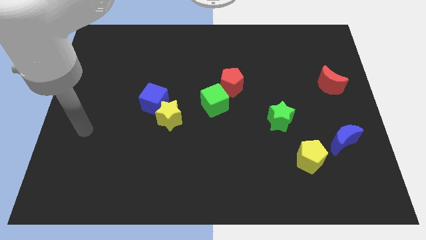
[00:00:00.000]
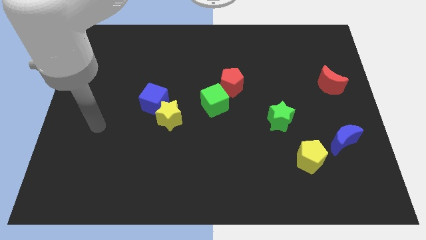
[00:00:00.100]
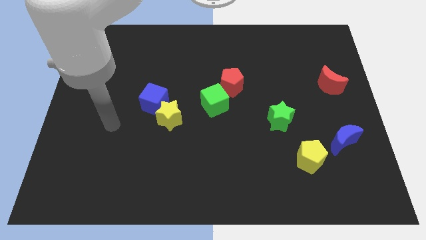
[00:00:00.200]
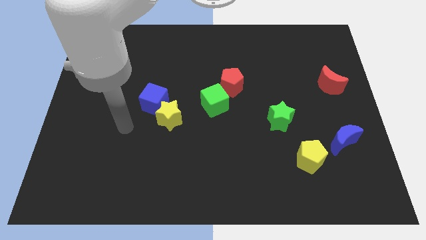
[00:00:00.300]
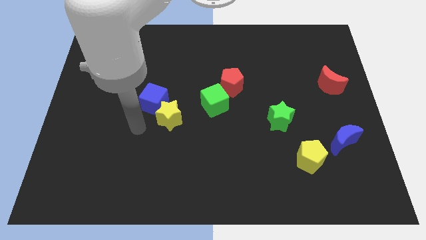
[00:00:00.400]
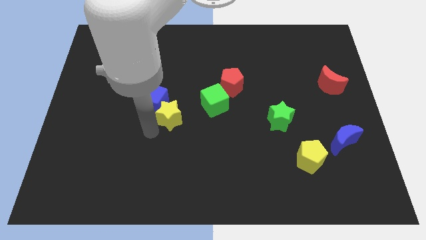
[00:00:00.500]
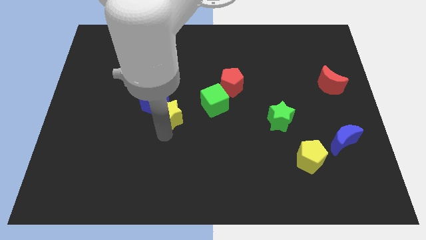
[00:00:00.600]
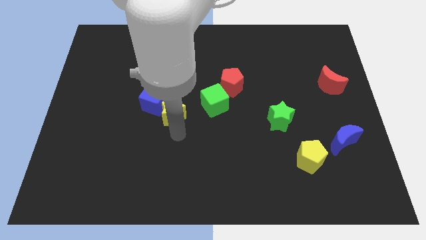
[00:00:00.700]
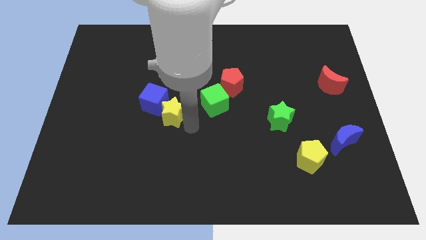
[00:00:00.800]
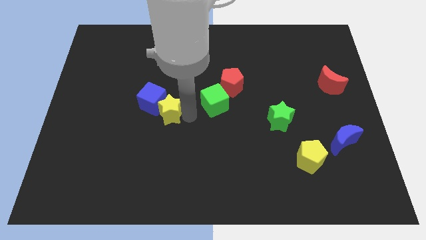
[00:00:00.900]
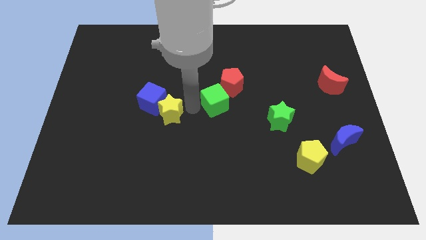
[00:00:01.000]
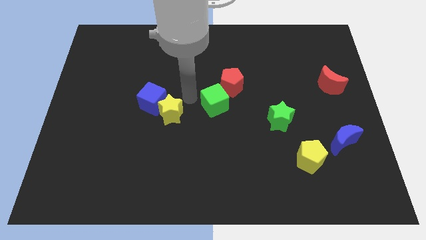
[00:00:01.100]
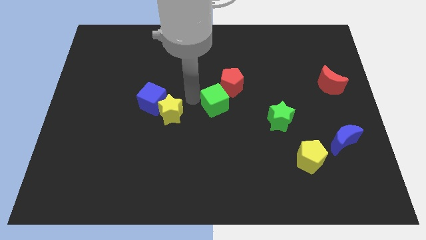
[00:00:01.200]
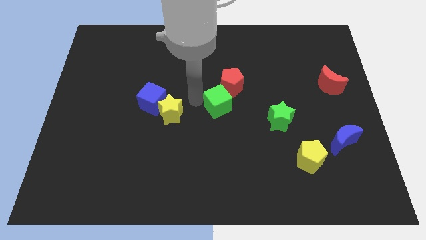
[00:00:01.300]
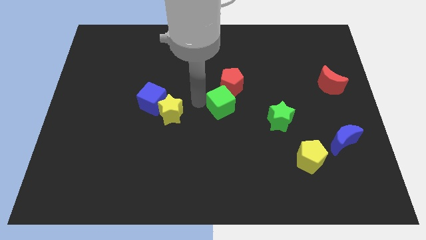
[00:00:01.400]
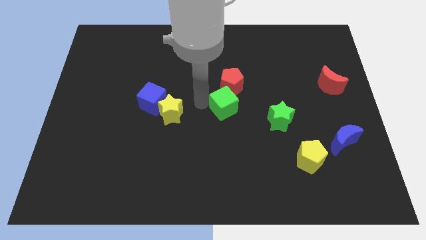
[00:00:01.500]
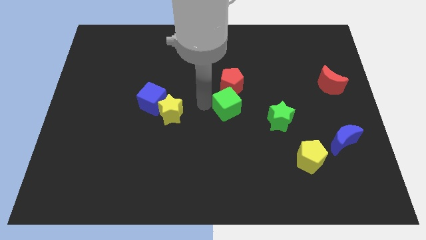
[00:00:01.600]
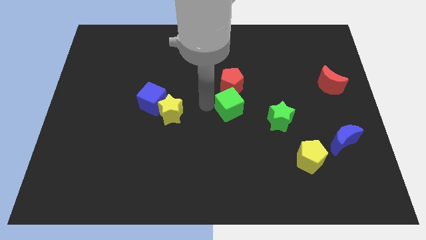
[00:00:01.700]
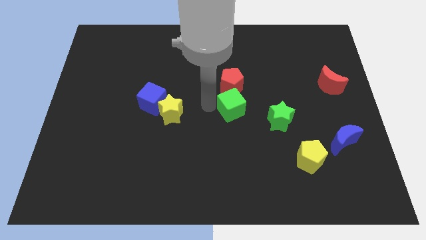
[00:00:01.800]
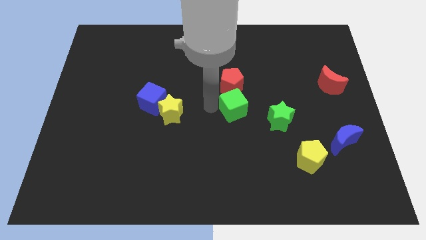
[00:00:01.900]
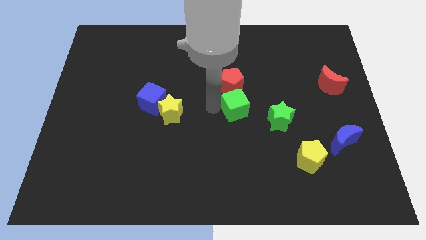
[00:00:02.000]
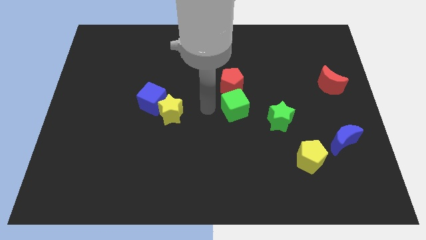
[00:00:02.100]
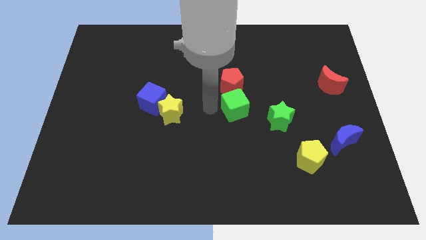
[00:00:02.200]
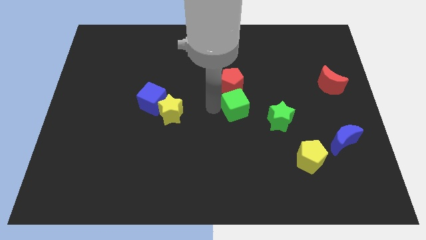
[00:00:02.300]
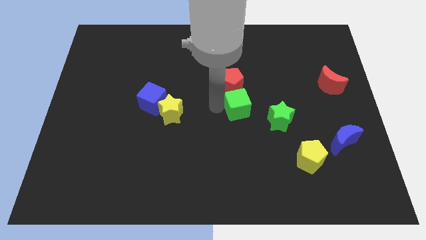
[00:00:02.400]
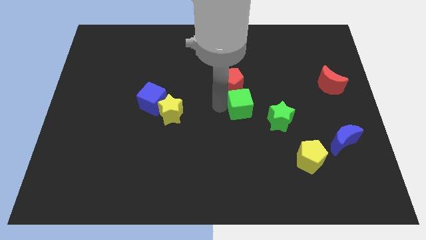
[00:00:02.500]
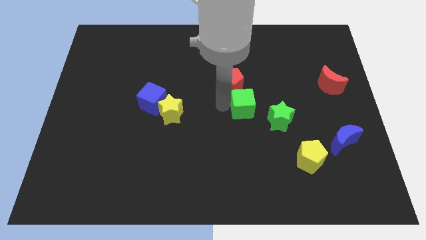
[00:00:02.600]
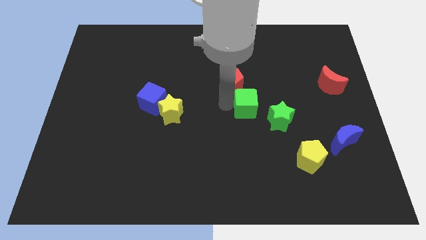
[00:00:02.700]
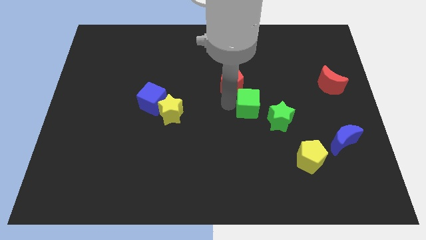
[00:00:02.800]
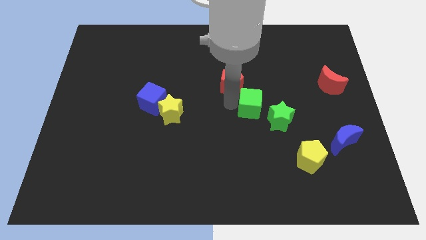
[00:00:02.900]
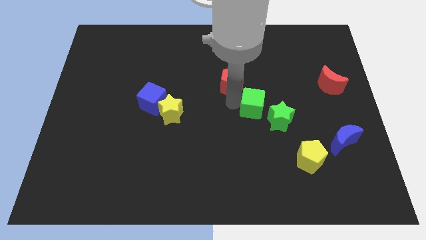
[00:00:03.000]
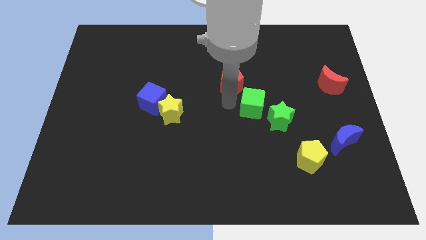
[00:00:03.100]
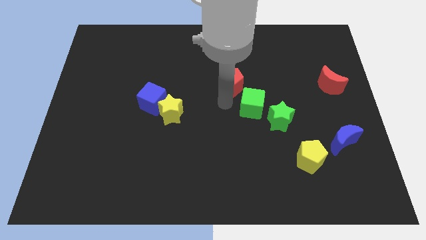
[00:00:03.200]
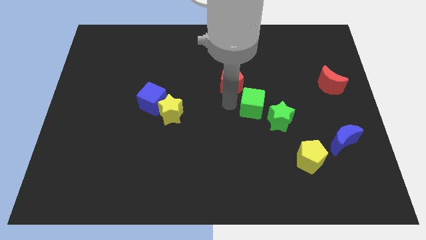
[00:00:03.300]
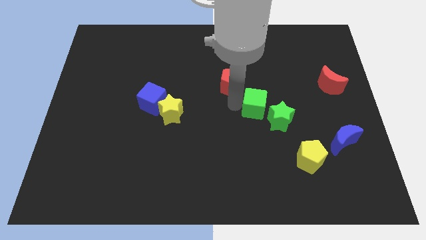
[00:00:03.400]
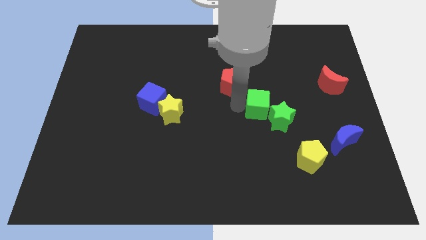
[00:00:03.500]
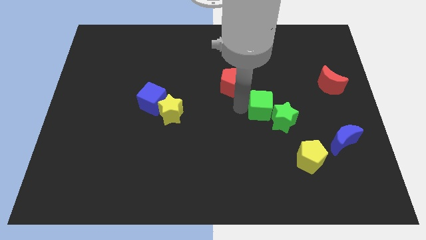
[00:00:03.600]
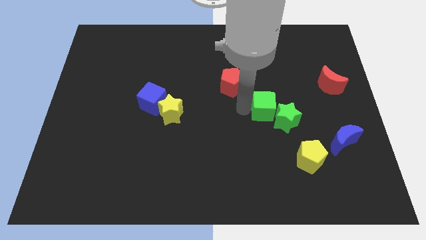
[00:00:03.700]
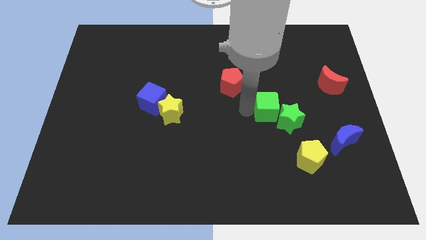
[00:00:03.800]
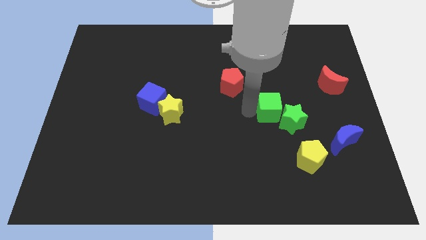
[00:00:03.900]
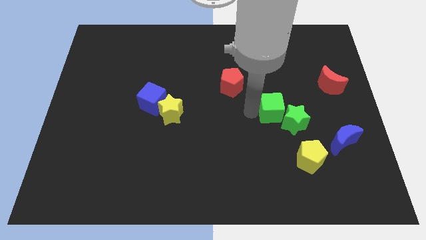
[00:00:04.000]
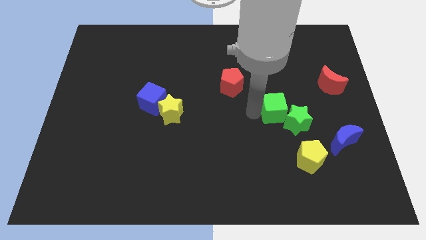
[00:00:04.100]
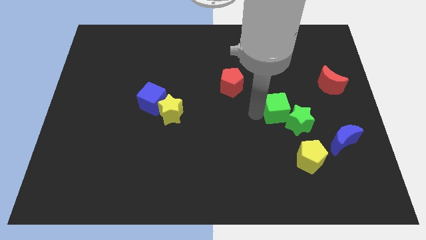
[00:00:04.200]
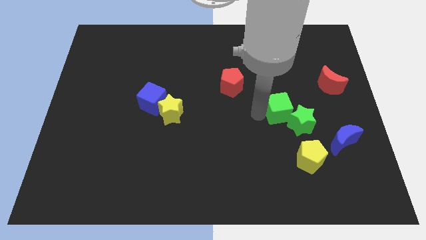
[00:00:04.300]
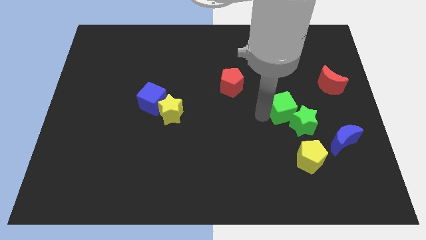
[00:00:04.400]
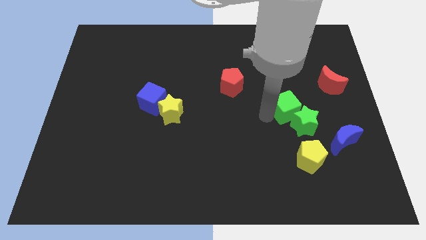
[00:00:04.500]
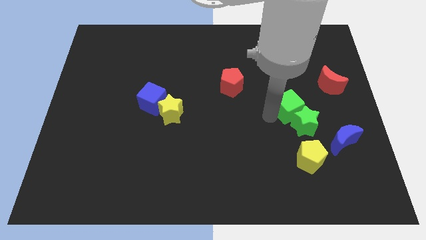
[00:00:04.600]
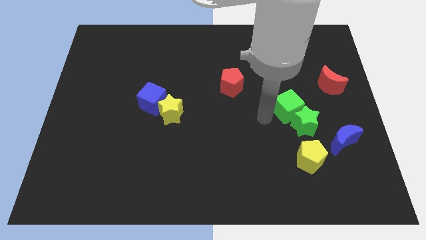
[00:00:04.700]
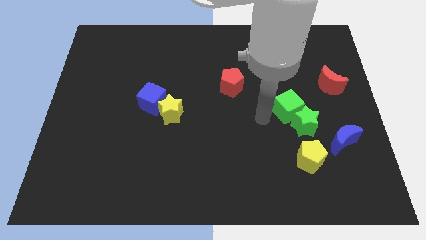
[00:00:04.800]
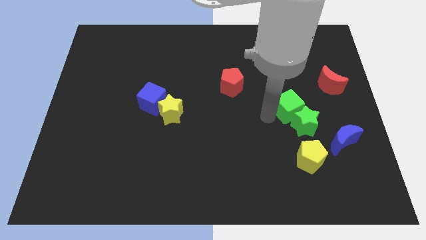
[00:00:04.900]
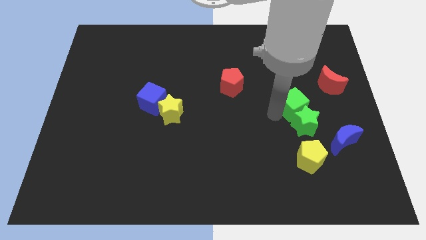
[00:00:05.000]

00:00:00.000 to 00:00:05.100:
slide the green cube diagonally down and to the left of the red moon

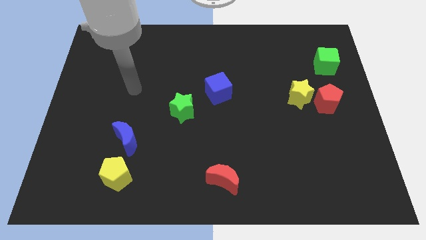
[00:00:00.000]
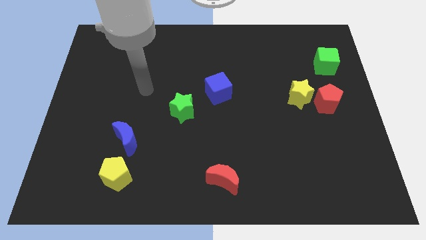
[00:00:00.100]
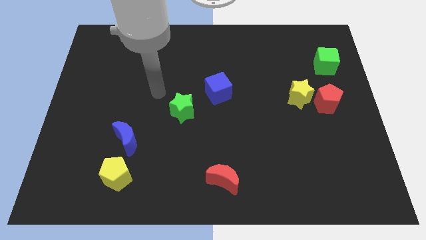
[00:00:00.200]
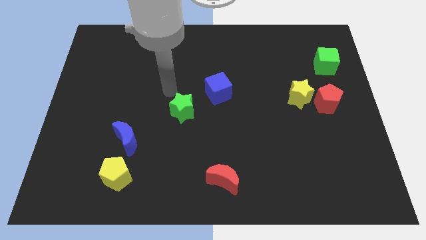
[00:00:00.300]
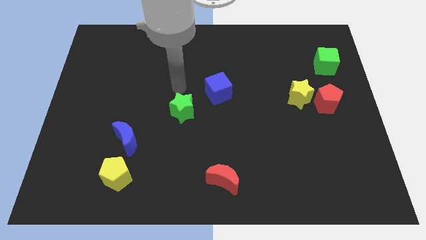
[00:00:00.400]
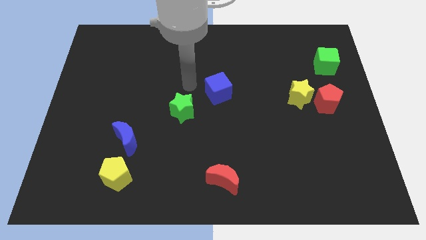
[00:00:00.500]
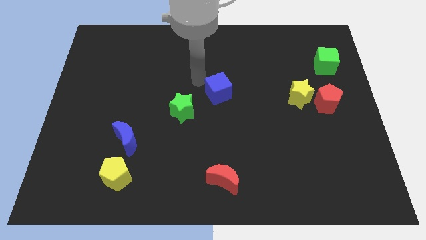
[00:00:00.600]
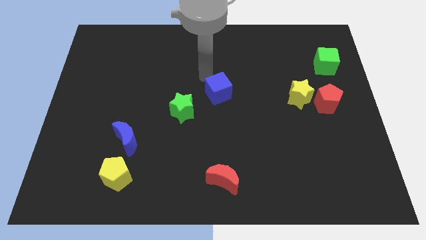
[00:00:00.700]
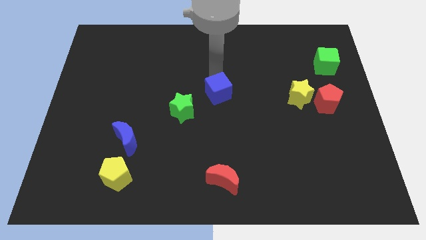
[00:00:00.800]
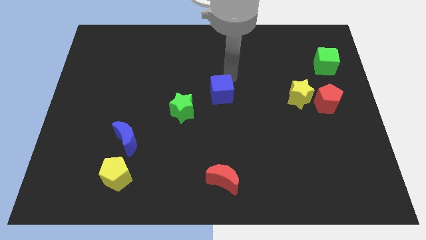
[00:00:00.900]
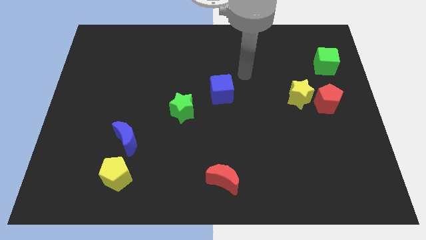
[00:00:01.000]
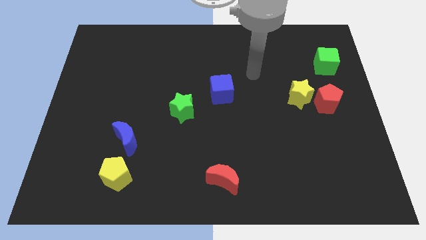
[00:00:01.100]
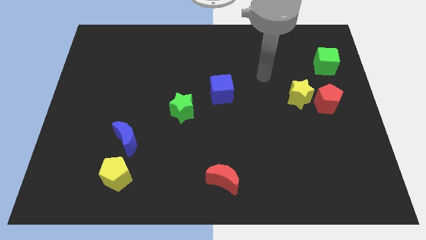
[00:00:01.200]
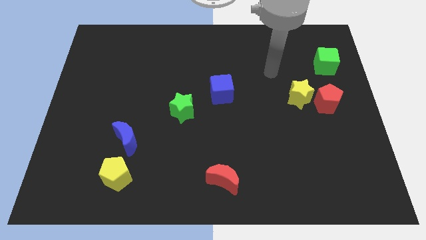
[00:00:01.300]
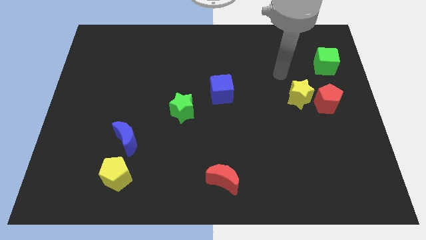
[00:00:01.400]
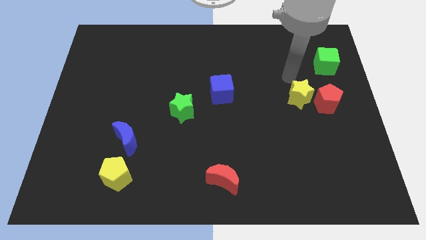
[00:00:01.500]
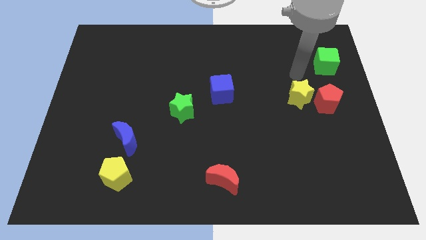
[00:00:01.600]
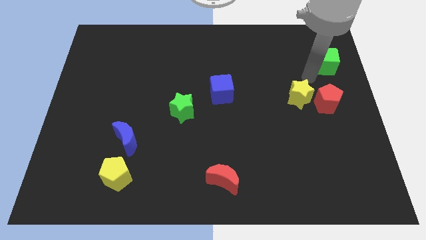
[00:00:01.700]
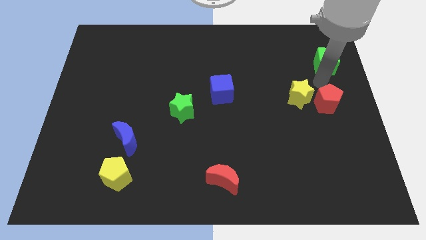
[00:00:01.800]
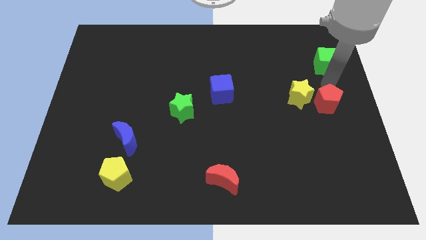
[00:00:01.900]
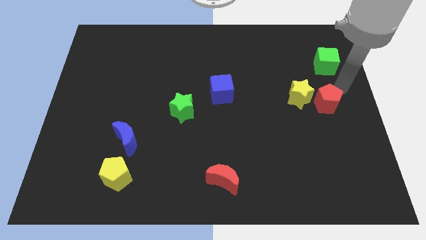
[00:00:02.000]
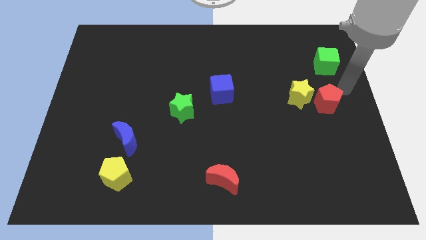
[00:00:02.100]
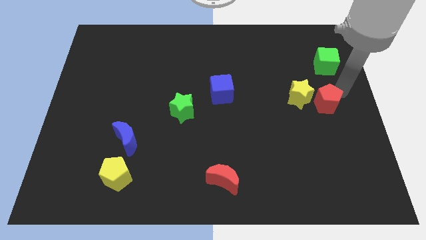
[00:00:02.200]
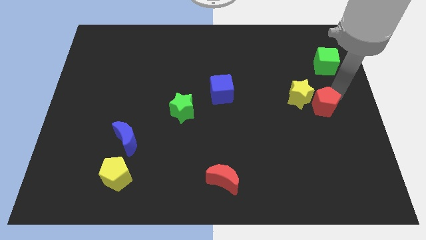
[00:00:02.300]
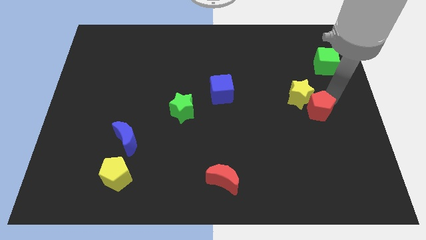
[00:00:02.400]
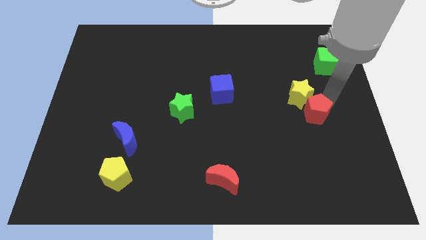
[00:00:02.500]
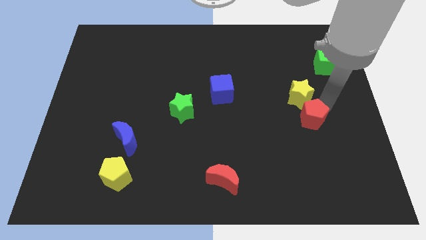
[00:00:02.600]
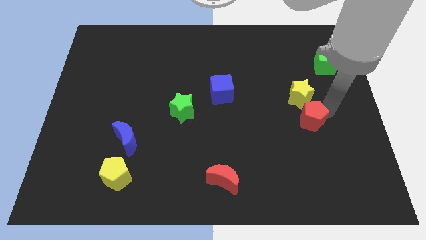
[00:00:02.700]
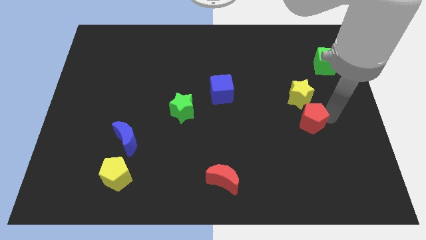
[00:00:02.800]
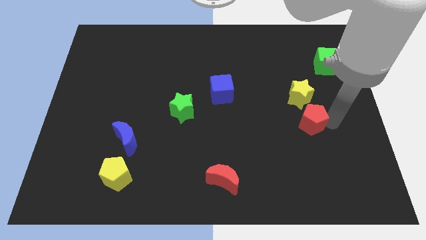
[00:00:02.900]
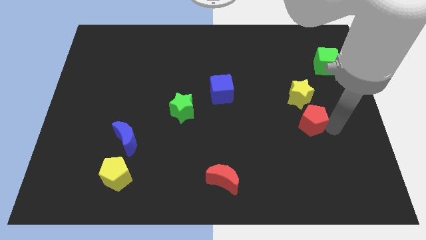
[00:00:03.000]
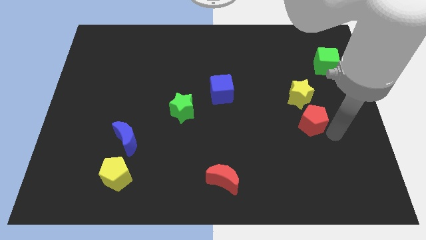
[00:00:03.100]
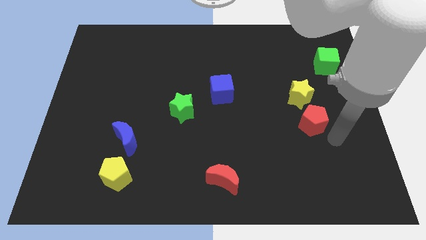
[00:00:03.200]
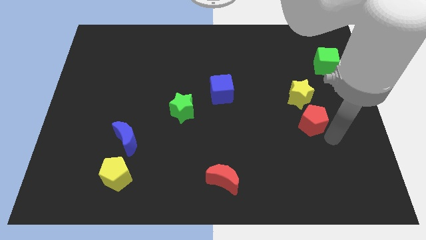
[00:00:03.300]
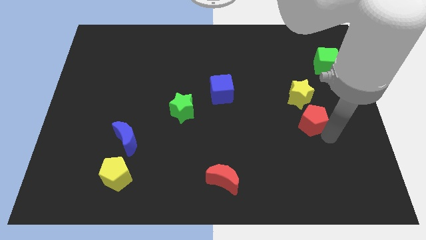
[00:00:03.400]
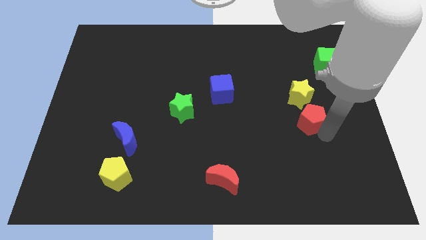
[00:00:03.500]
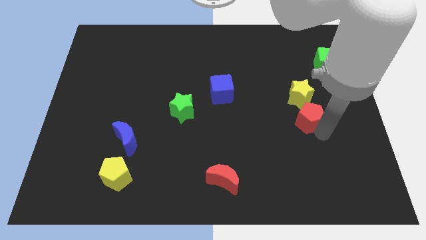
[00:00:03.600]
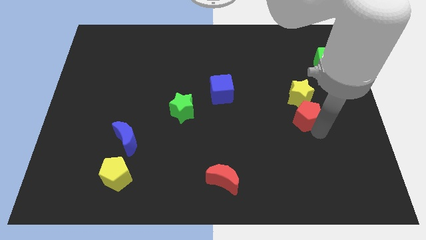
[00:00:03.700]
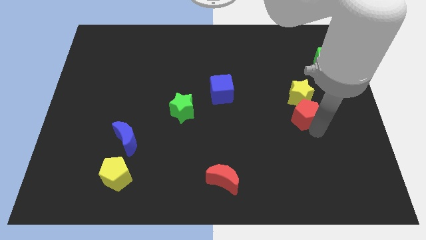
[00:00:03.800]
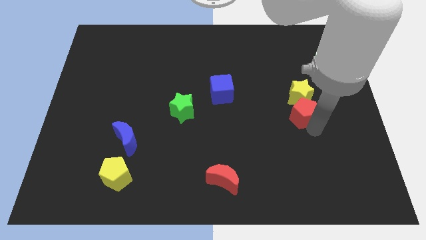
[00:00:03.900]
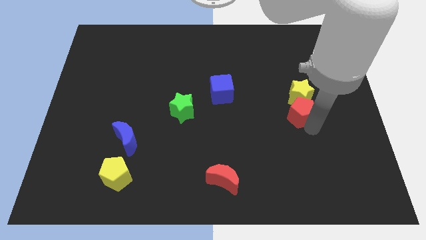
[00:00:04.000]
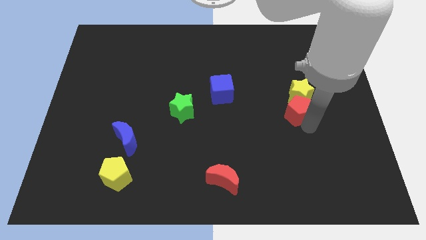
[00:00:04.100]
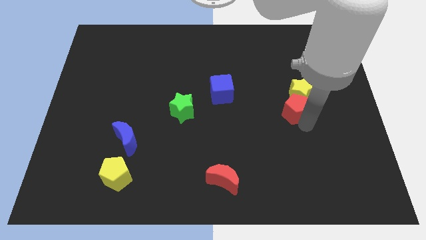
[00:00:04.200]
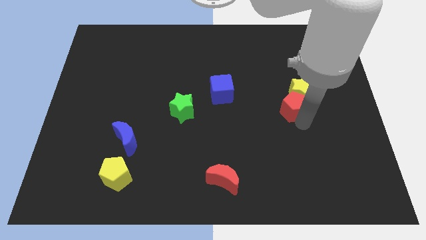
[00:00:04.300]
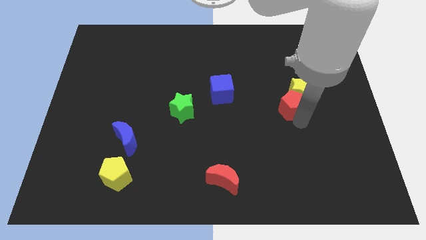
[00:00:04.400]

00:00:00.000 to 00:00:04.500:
slide the red pentagon just left of the yellow star
